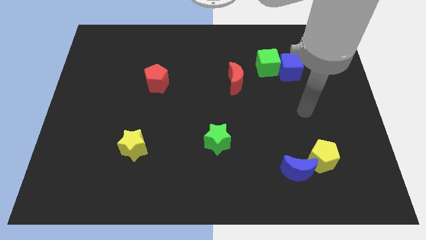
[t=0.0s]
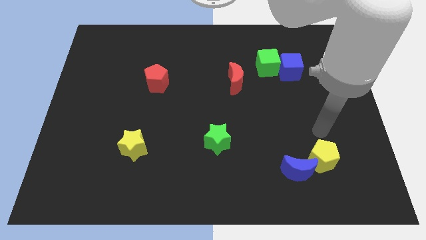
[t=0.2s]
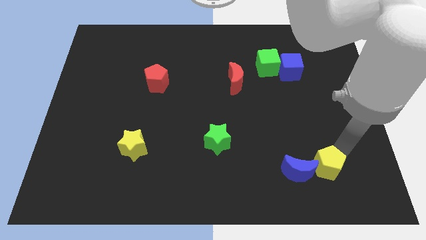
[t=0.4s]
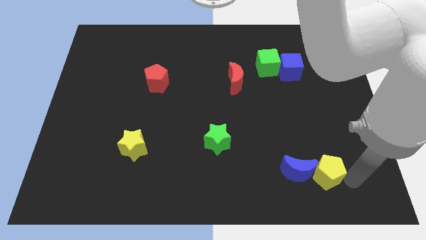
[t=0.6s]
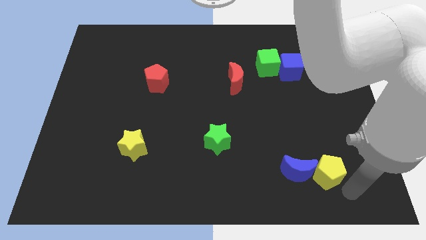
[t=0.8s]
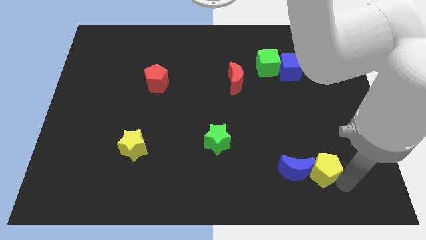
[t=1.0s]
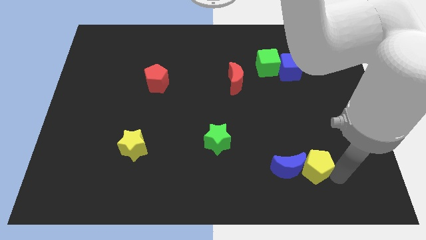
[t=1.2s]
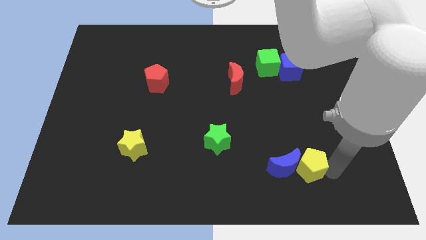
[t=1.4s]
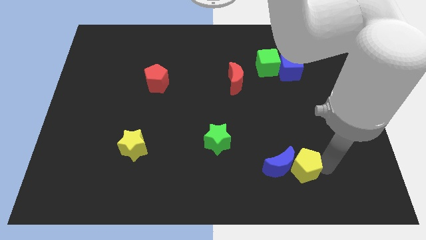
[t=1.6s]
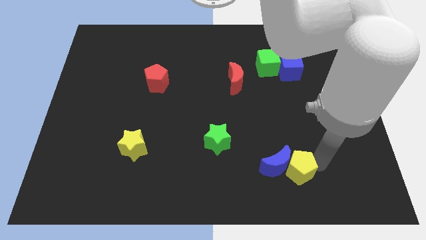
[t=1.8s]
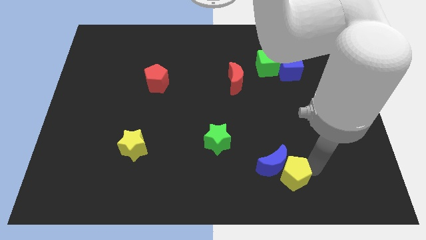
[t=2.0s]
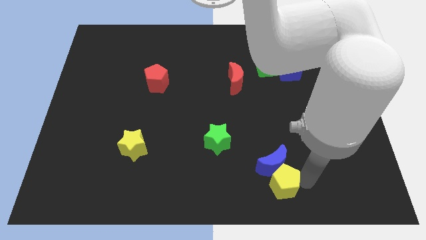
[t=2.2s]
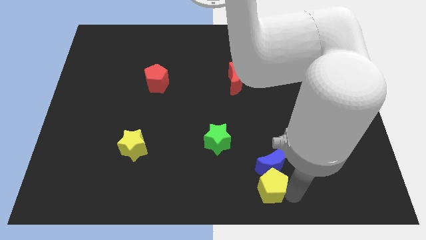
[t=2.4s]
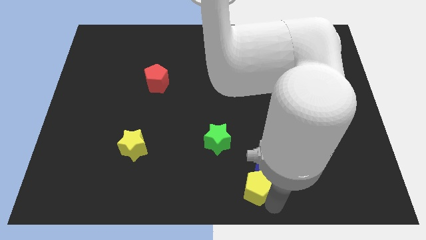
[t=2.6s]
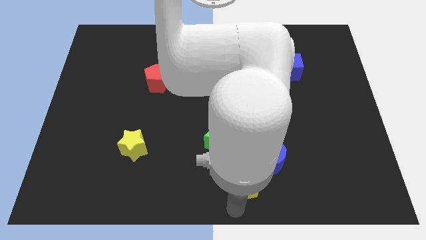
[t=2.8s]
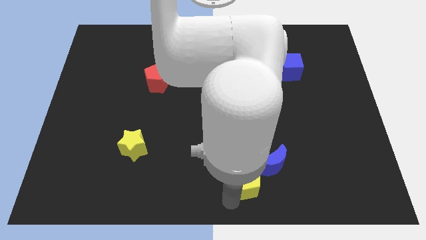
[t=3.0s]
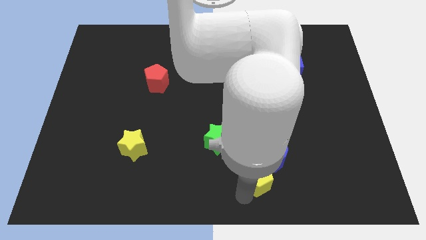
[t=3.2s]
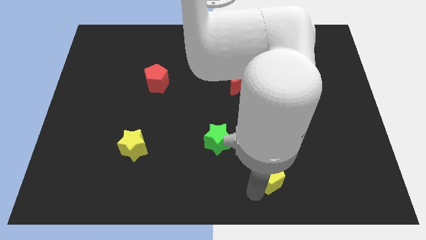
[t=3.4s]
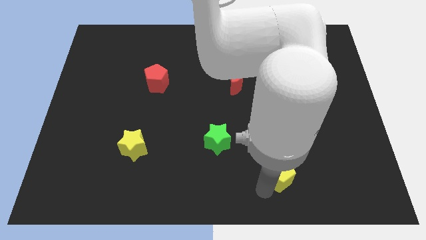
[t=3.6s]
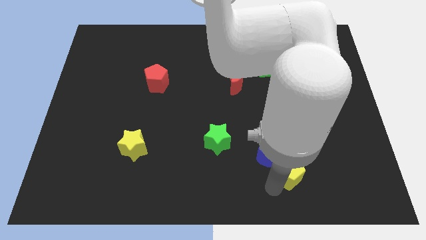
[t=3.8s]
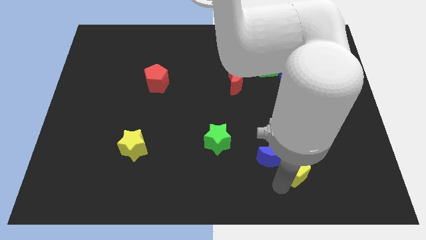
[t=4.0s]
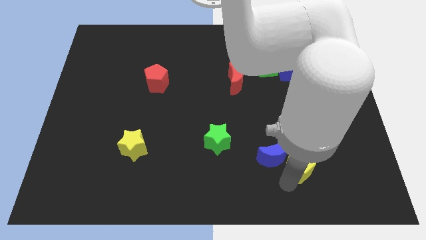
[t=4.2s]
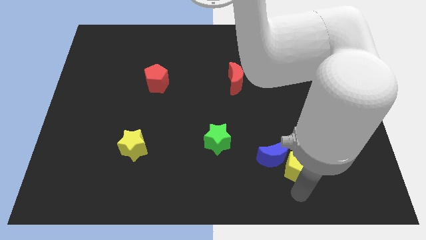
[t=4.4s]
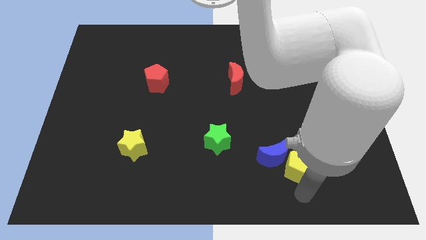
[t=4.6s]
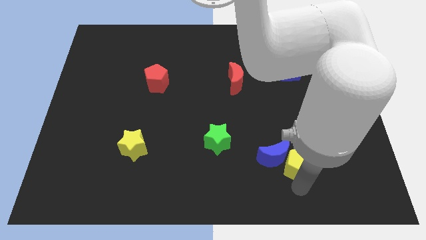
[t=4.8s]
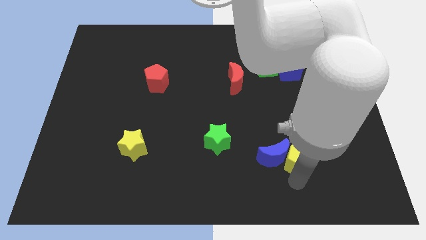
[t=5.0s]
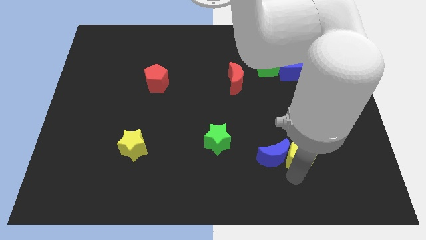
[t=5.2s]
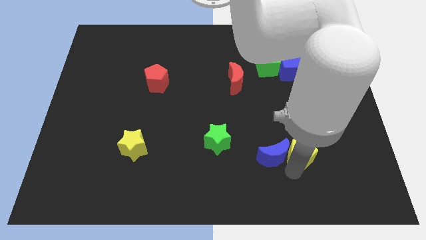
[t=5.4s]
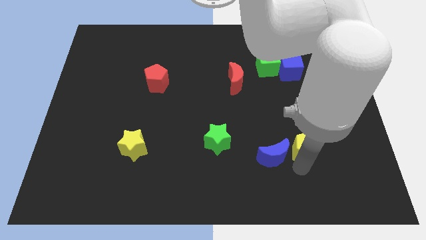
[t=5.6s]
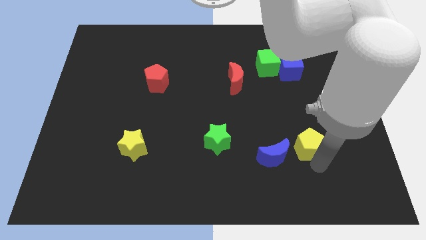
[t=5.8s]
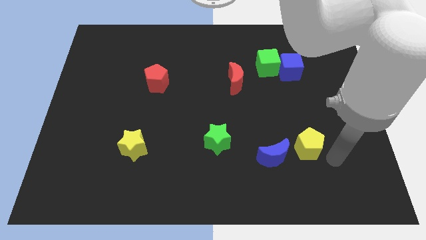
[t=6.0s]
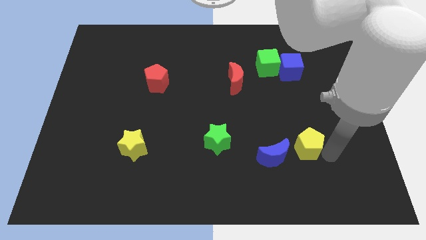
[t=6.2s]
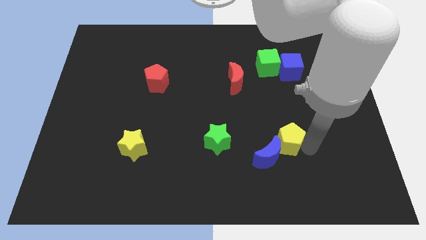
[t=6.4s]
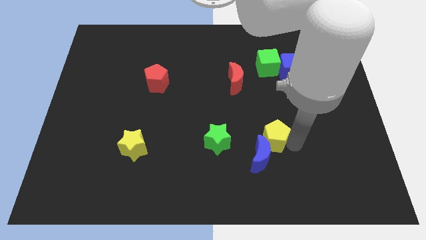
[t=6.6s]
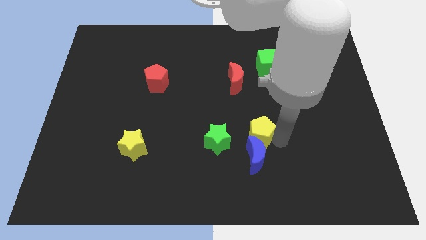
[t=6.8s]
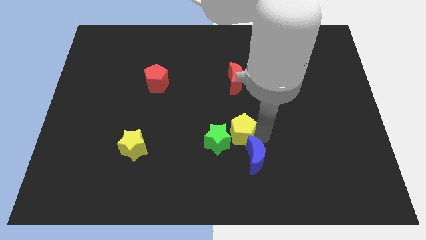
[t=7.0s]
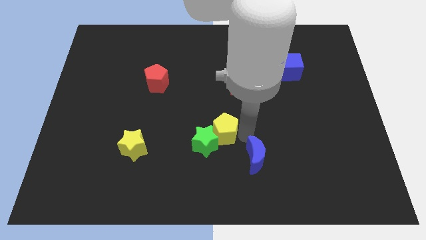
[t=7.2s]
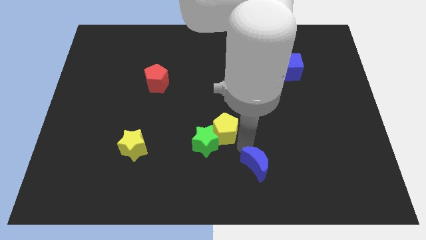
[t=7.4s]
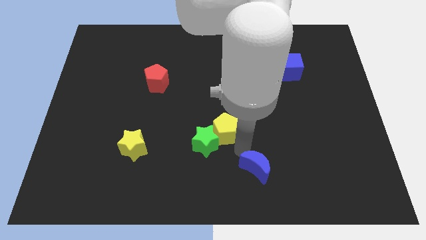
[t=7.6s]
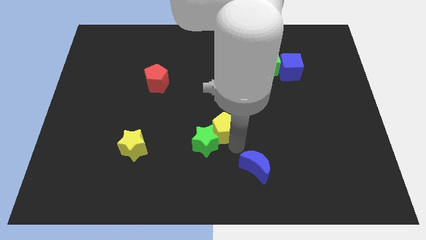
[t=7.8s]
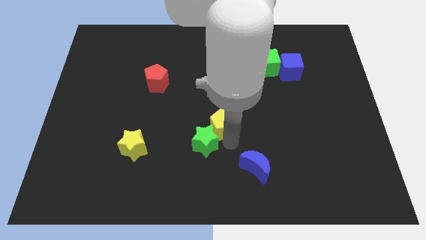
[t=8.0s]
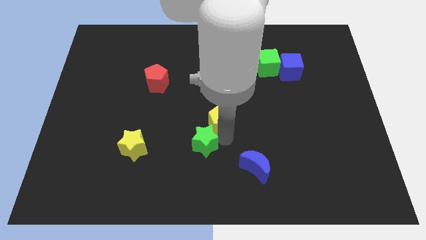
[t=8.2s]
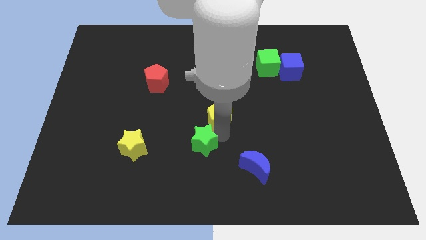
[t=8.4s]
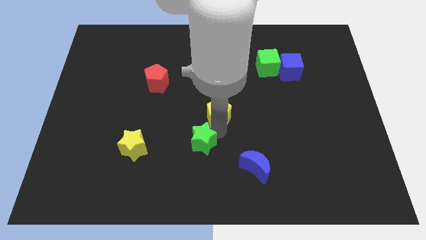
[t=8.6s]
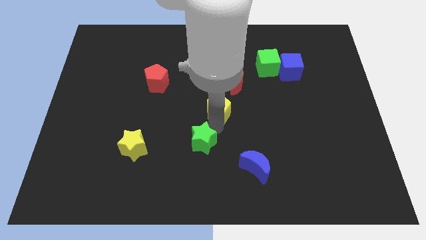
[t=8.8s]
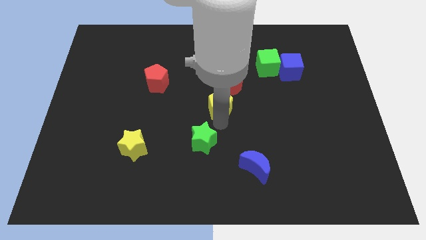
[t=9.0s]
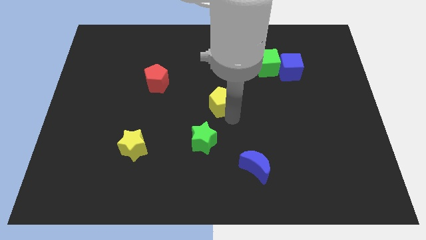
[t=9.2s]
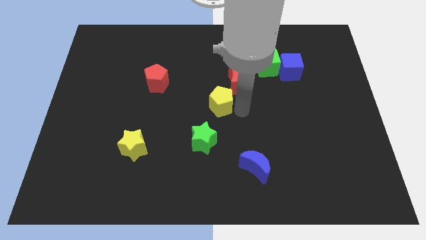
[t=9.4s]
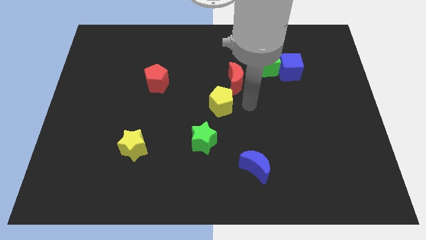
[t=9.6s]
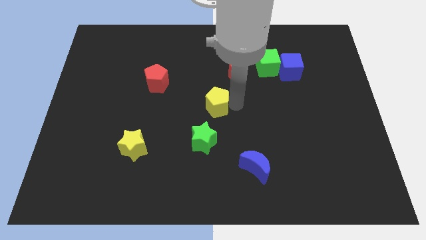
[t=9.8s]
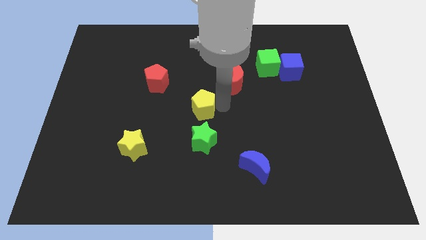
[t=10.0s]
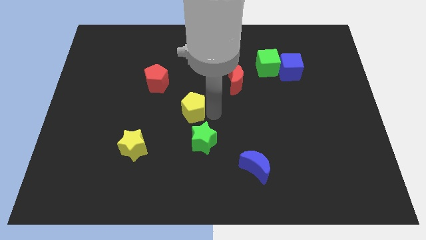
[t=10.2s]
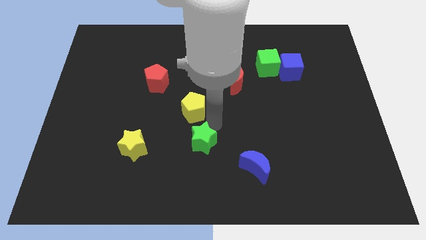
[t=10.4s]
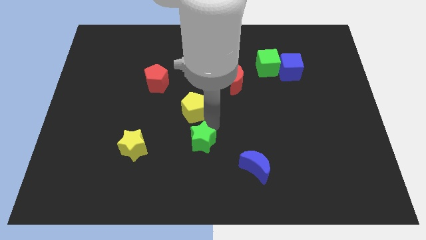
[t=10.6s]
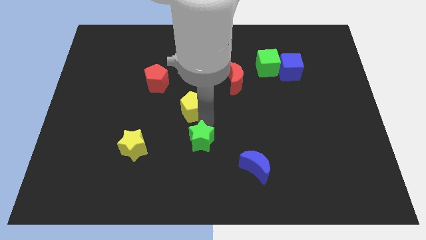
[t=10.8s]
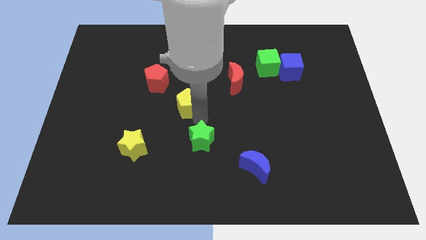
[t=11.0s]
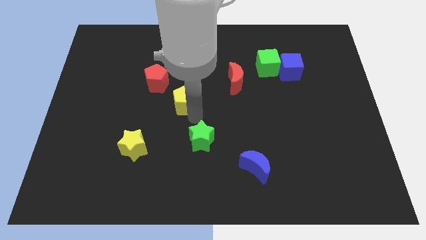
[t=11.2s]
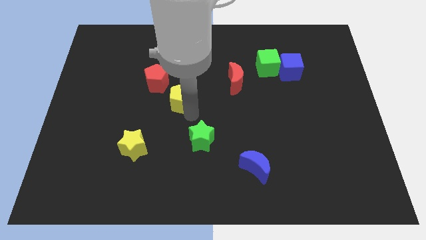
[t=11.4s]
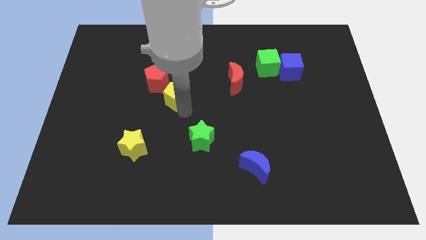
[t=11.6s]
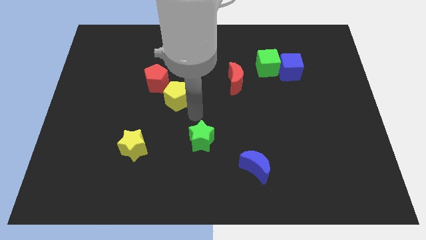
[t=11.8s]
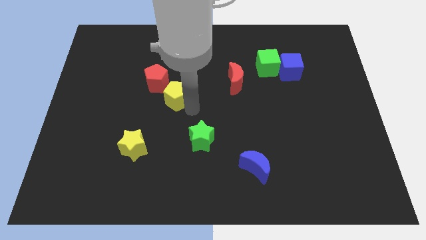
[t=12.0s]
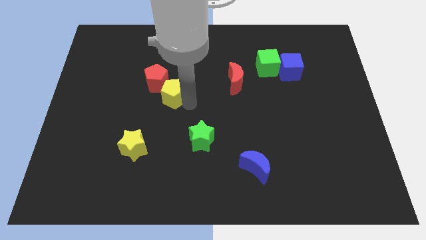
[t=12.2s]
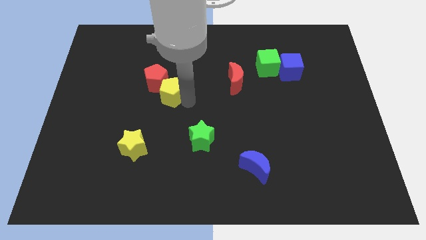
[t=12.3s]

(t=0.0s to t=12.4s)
push the yellow pentagon towards the red pentagon
